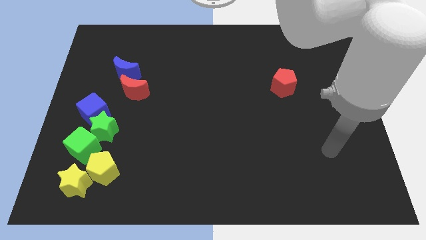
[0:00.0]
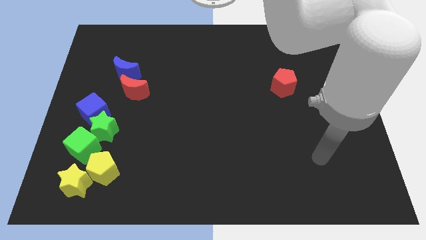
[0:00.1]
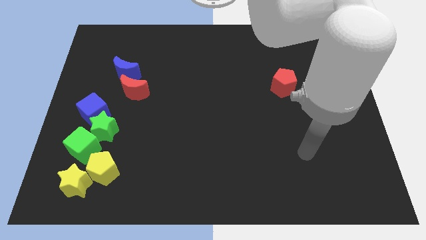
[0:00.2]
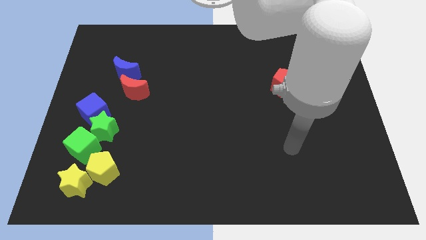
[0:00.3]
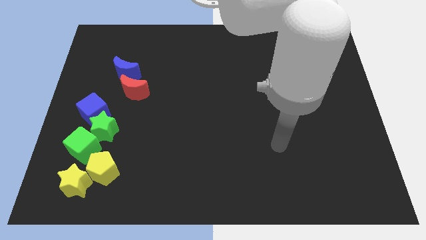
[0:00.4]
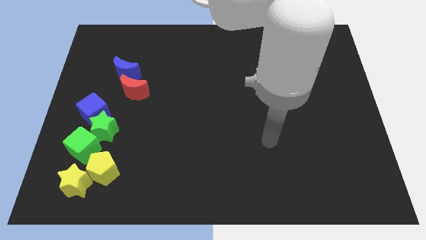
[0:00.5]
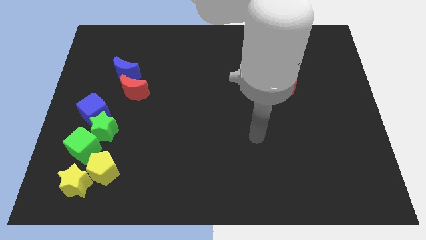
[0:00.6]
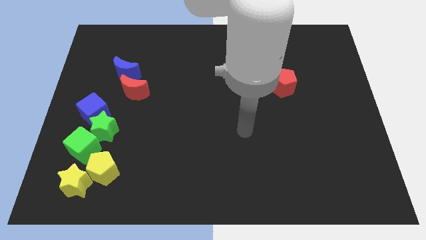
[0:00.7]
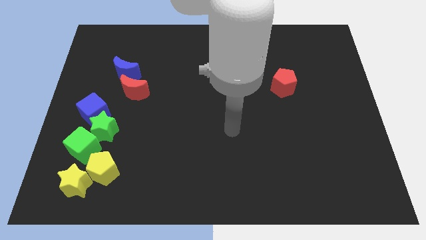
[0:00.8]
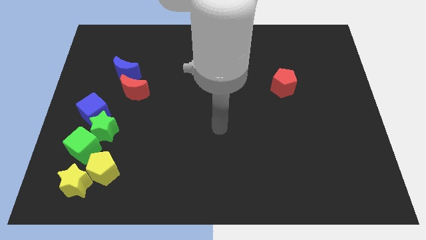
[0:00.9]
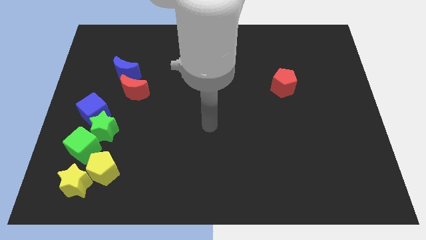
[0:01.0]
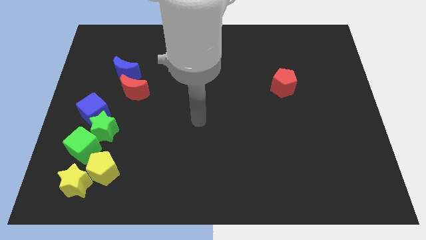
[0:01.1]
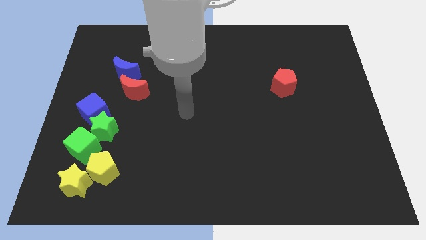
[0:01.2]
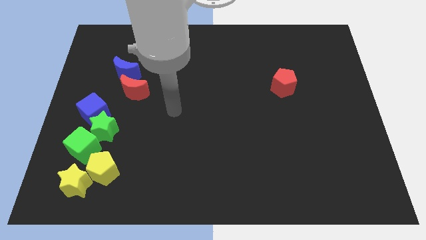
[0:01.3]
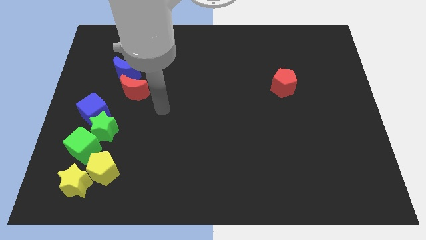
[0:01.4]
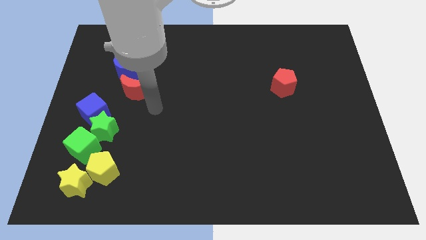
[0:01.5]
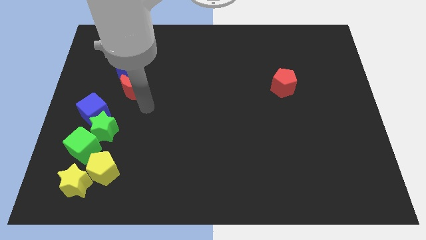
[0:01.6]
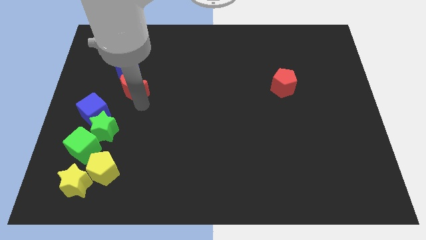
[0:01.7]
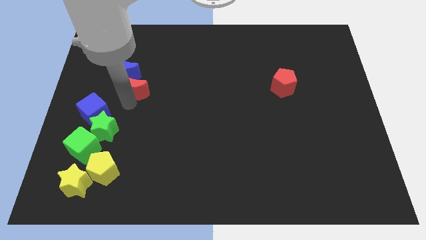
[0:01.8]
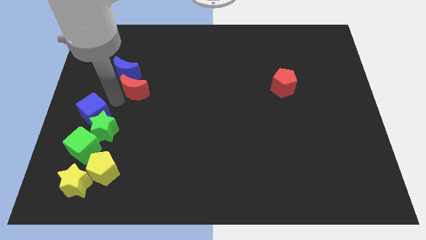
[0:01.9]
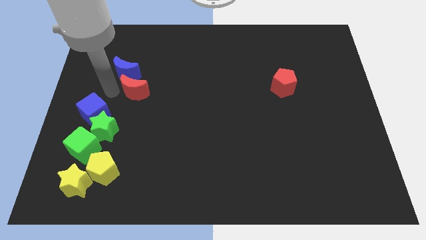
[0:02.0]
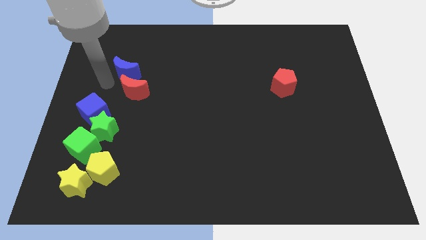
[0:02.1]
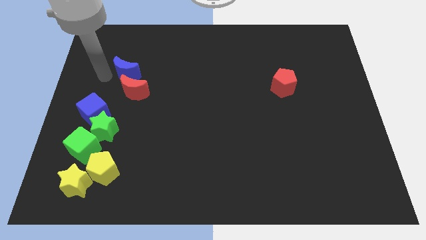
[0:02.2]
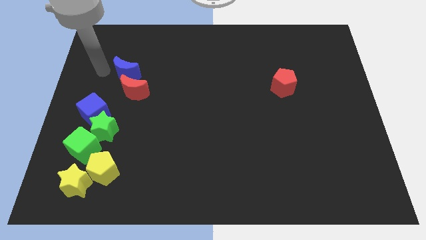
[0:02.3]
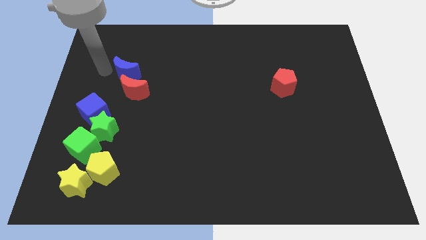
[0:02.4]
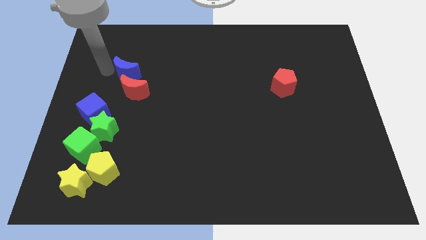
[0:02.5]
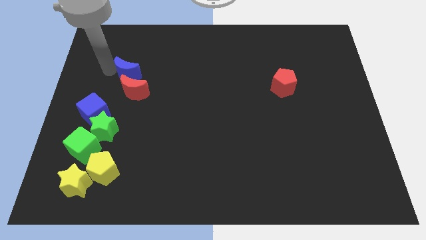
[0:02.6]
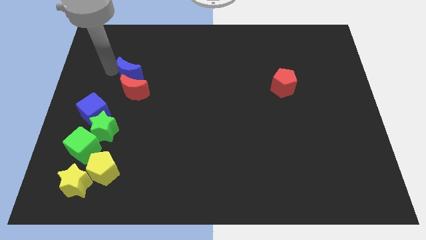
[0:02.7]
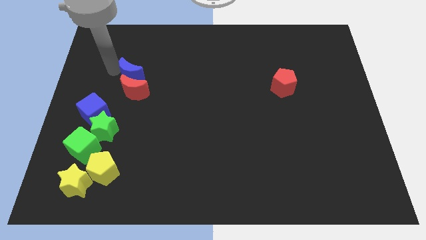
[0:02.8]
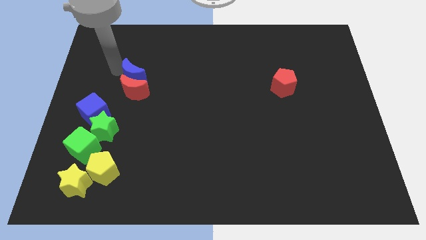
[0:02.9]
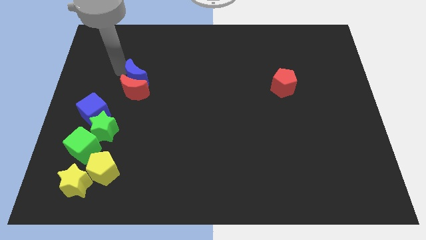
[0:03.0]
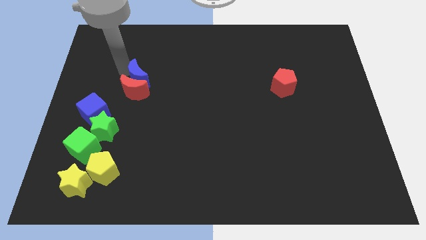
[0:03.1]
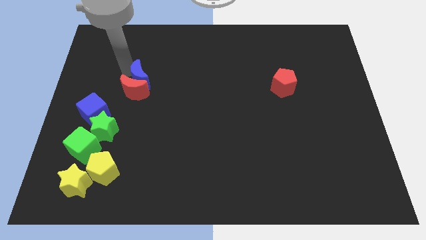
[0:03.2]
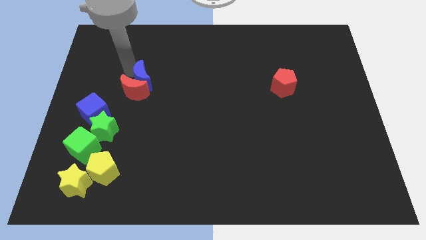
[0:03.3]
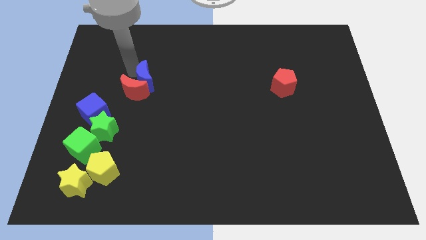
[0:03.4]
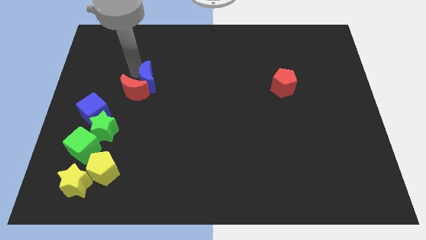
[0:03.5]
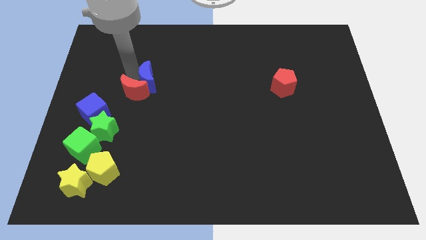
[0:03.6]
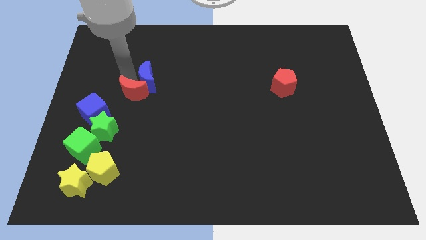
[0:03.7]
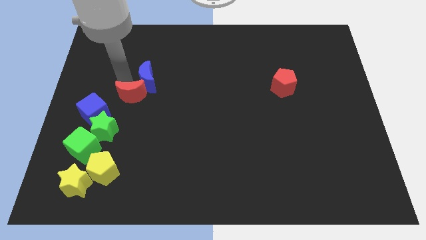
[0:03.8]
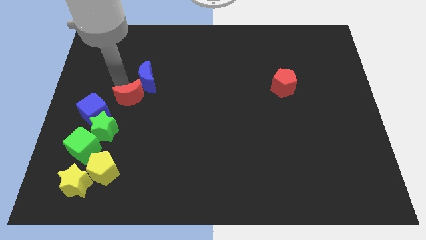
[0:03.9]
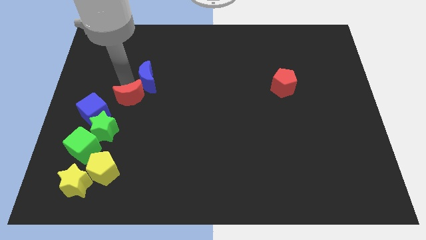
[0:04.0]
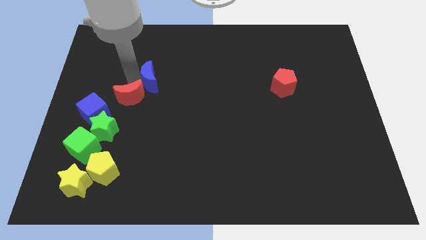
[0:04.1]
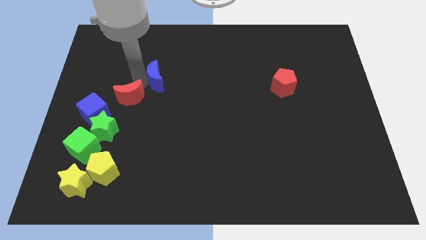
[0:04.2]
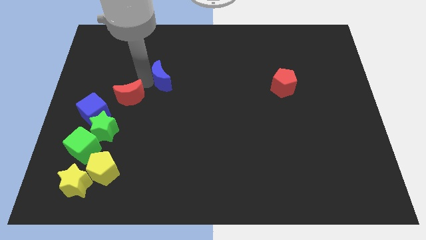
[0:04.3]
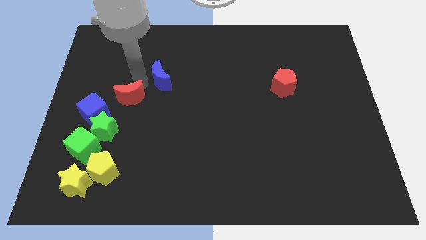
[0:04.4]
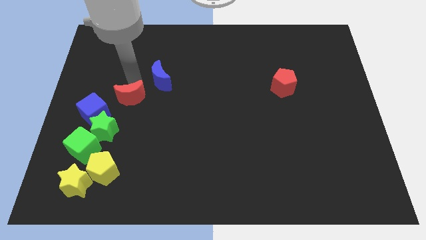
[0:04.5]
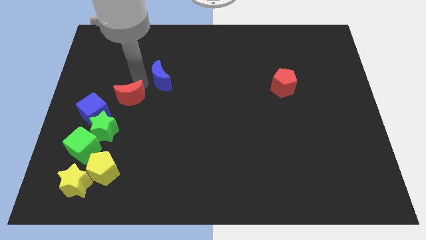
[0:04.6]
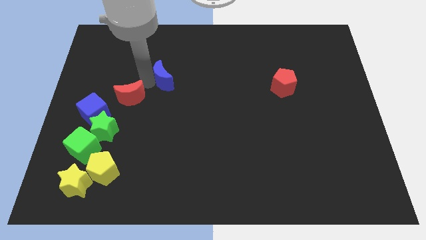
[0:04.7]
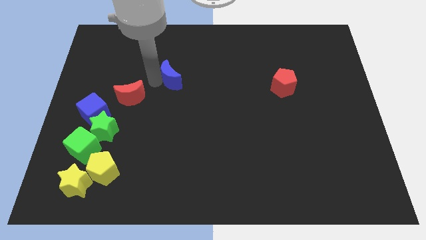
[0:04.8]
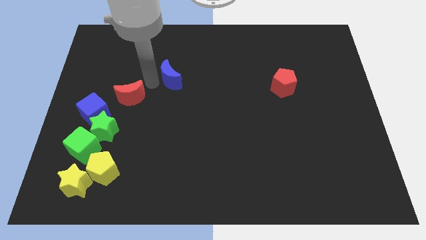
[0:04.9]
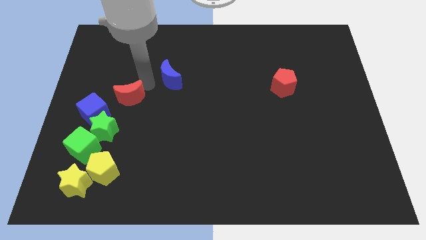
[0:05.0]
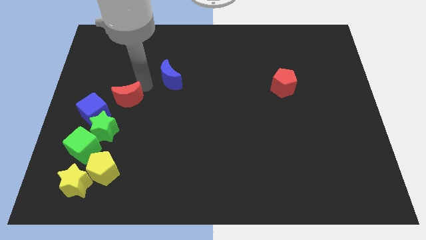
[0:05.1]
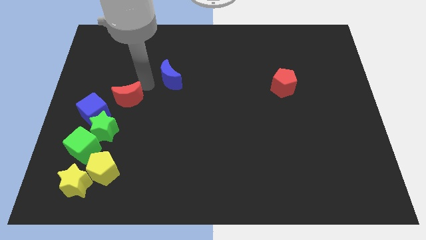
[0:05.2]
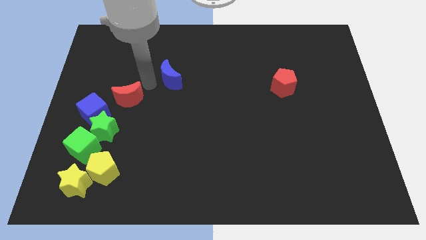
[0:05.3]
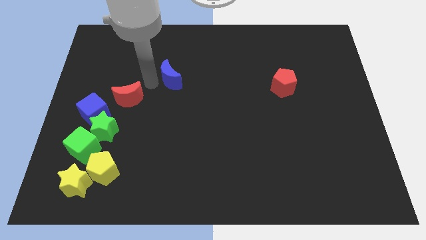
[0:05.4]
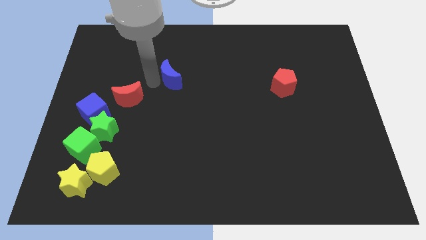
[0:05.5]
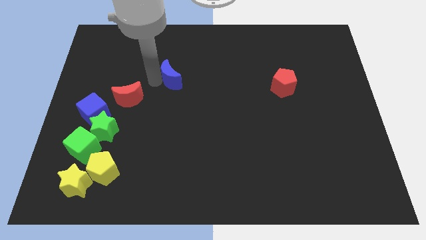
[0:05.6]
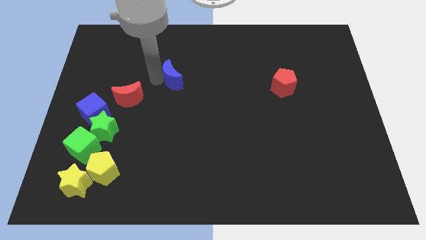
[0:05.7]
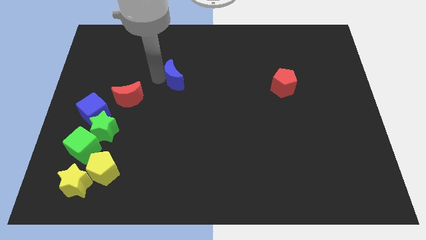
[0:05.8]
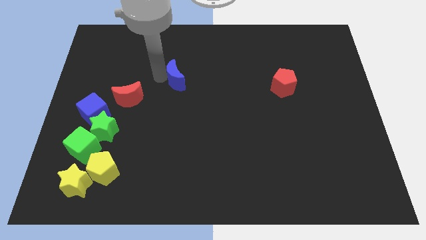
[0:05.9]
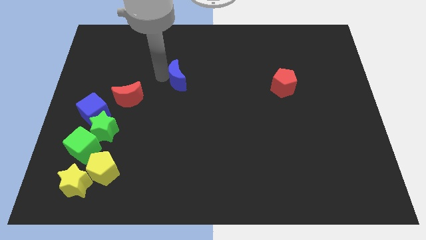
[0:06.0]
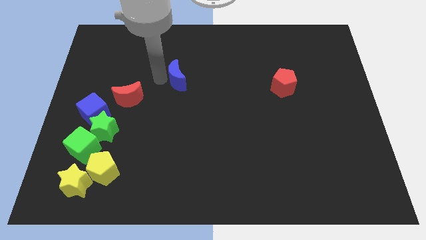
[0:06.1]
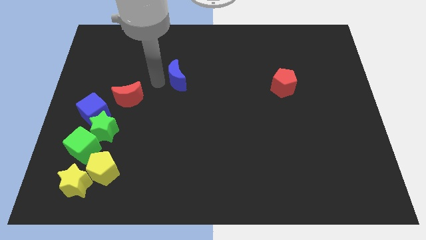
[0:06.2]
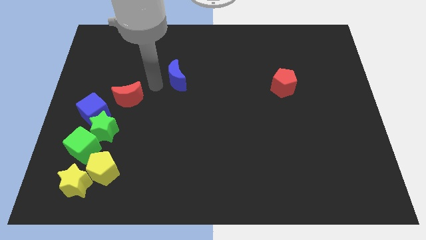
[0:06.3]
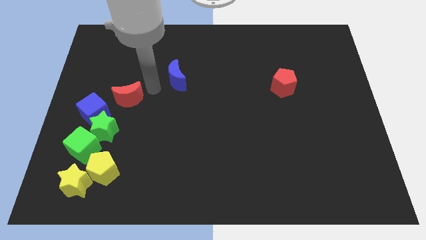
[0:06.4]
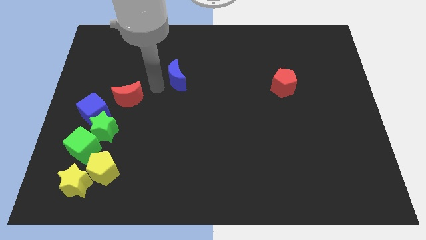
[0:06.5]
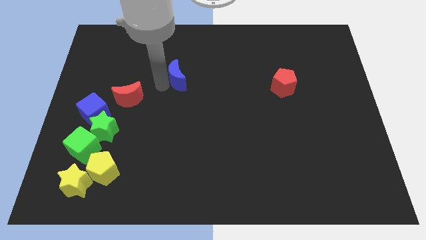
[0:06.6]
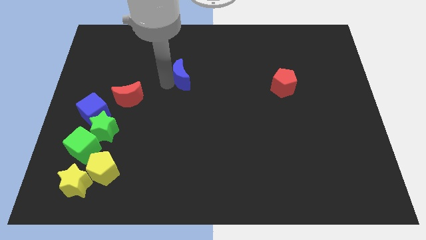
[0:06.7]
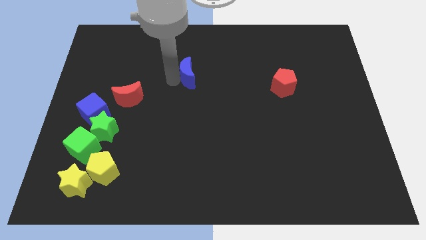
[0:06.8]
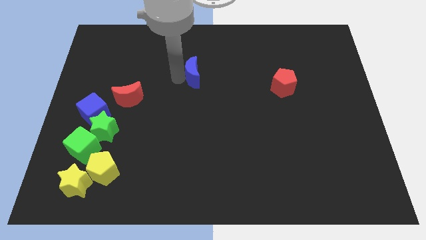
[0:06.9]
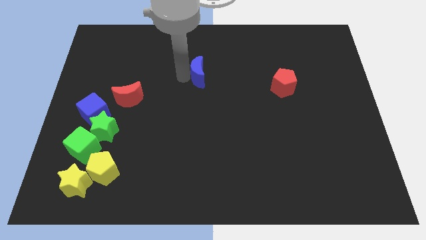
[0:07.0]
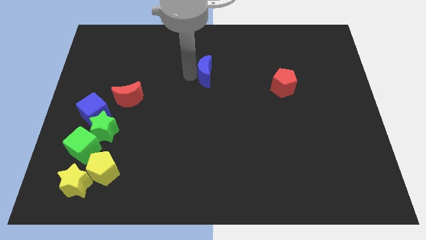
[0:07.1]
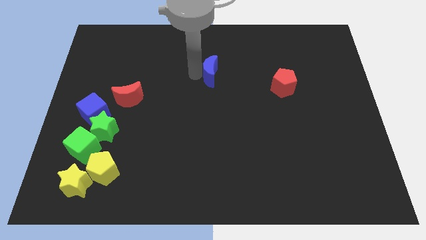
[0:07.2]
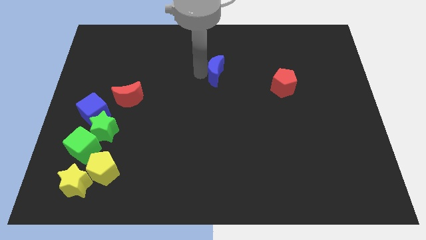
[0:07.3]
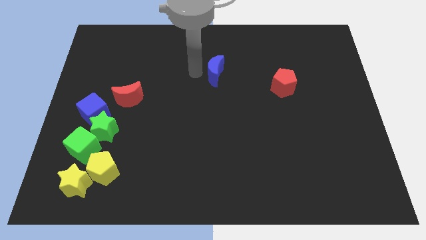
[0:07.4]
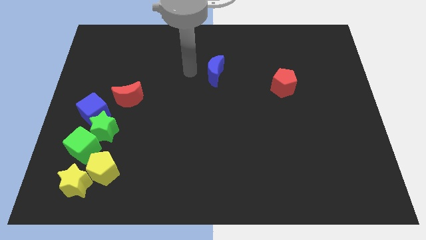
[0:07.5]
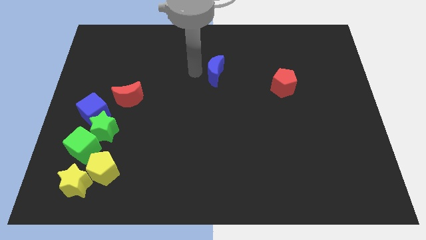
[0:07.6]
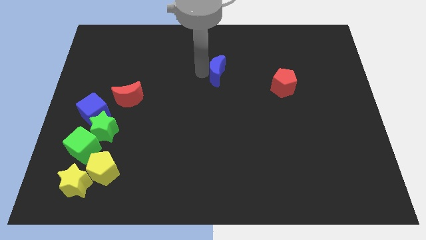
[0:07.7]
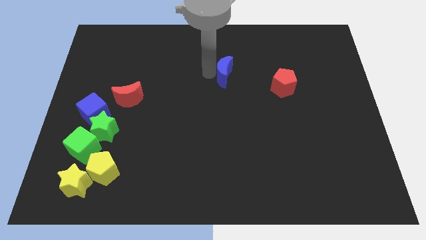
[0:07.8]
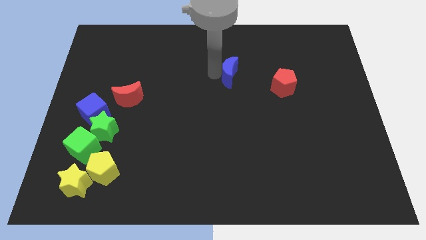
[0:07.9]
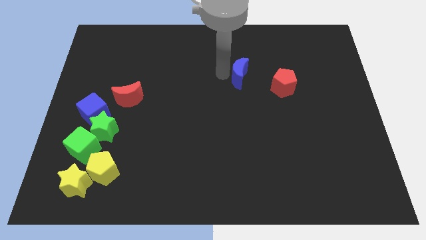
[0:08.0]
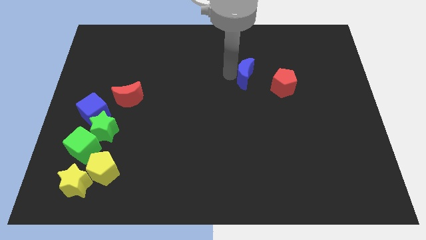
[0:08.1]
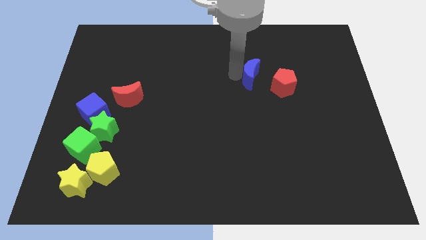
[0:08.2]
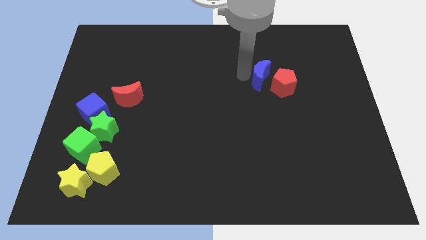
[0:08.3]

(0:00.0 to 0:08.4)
slide the blue moon to the red pentagon

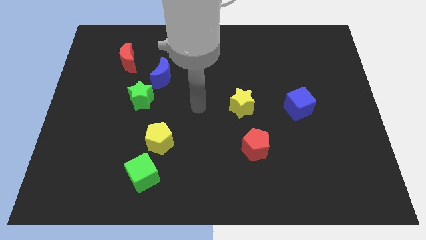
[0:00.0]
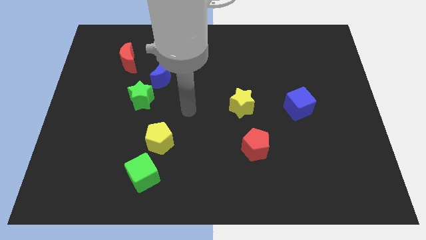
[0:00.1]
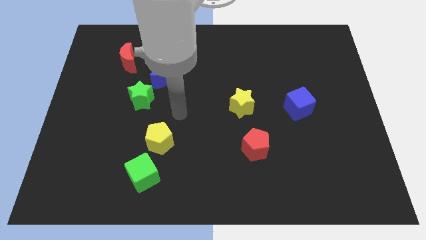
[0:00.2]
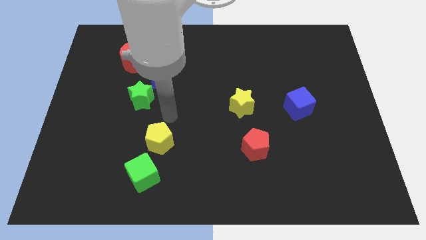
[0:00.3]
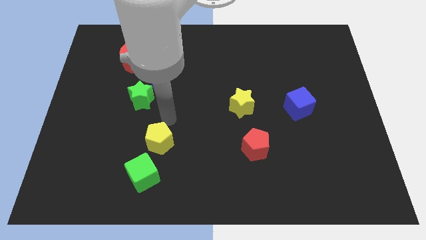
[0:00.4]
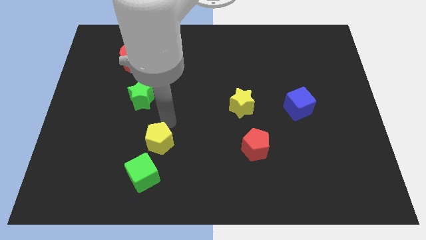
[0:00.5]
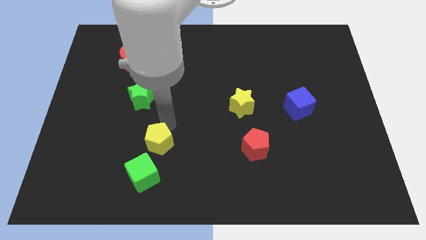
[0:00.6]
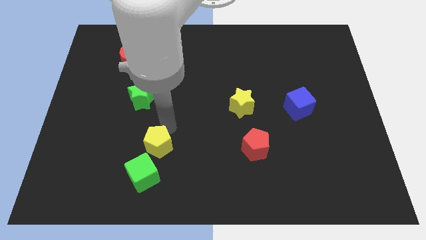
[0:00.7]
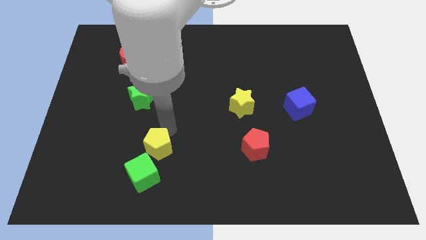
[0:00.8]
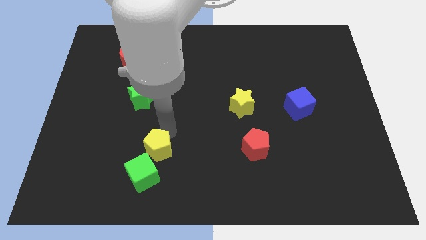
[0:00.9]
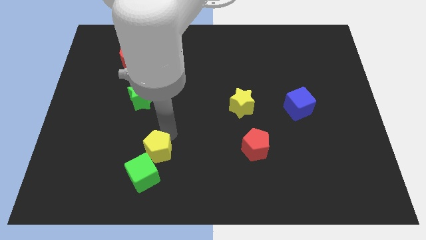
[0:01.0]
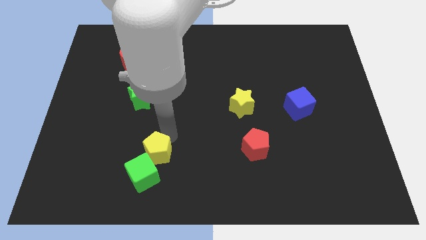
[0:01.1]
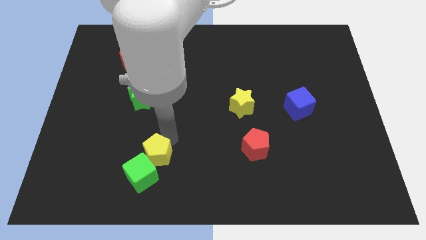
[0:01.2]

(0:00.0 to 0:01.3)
move the yellow pentagon next to the green cube
